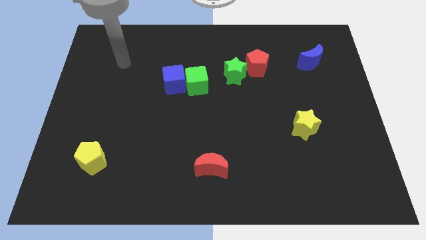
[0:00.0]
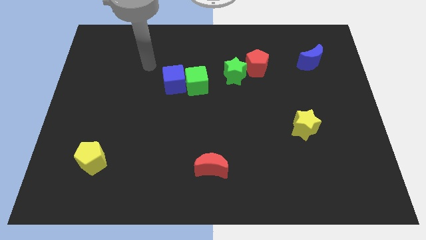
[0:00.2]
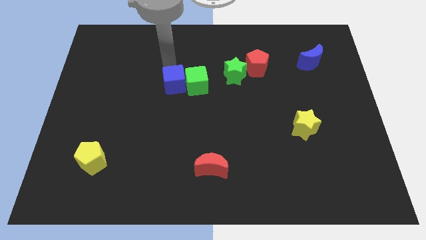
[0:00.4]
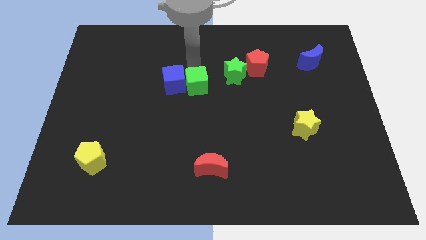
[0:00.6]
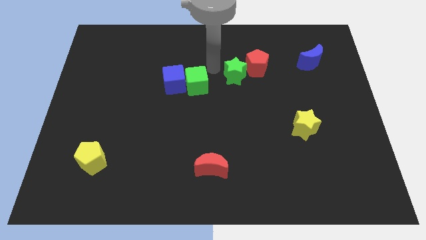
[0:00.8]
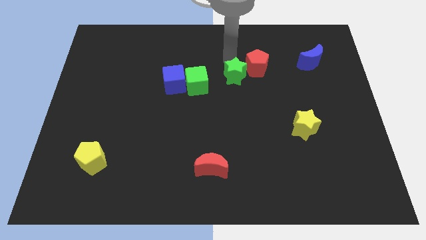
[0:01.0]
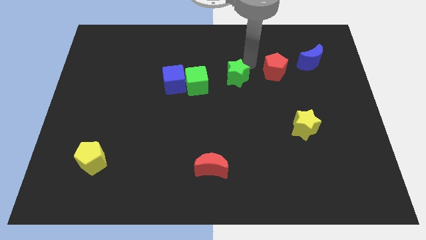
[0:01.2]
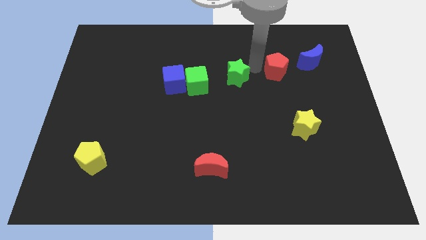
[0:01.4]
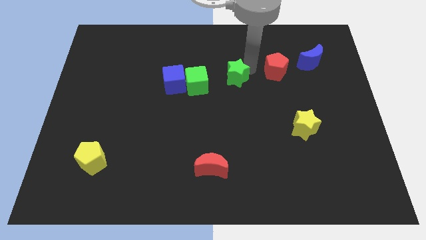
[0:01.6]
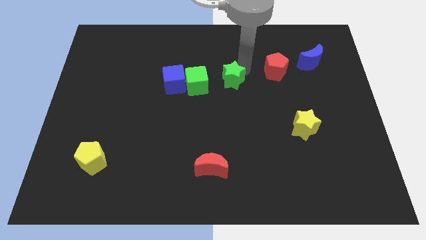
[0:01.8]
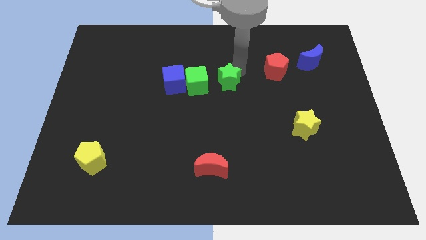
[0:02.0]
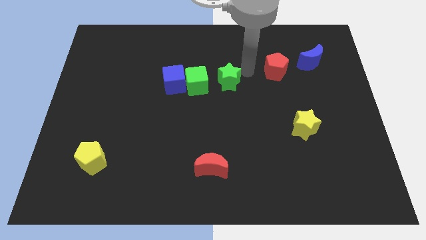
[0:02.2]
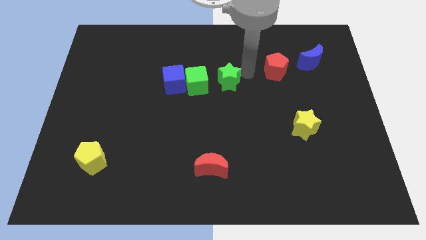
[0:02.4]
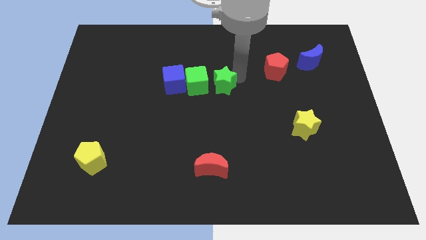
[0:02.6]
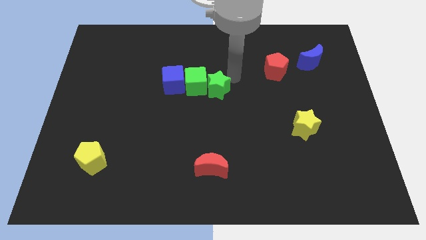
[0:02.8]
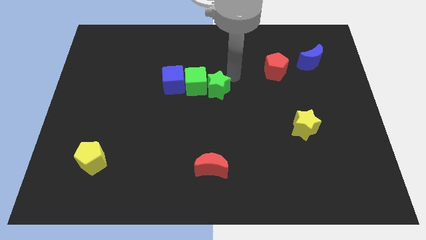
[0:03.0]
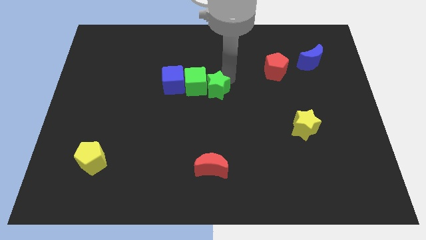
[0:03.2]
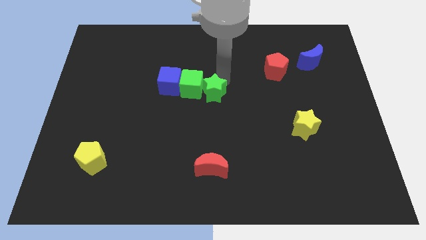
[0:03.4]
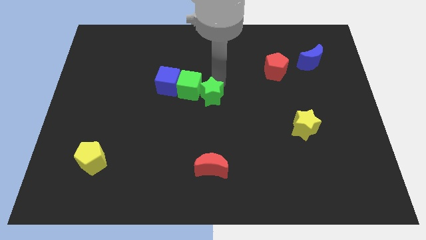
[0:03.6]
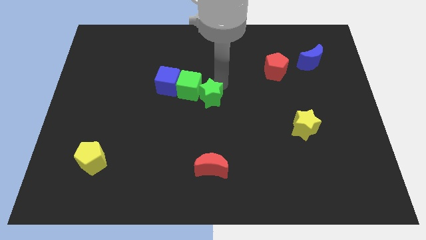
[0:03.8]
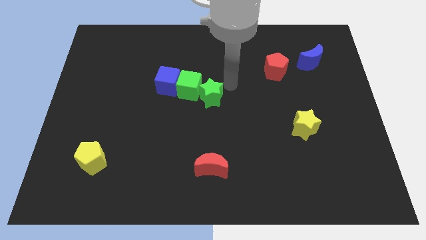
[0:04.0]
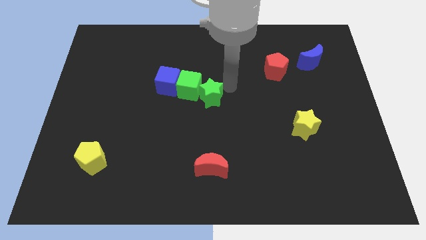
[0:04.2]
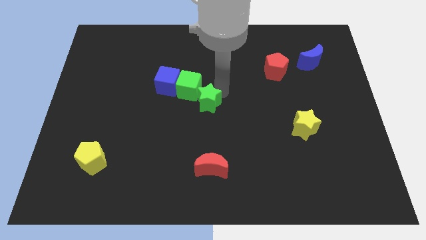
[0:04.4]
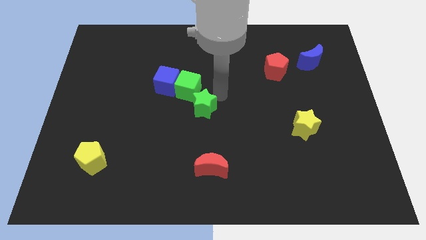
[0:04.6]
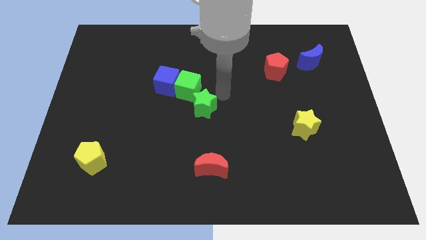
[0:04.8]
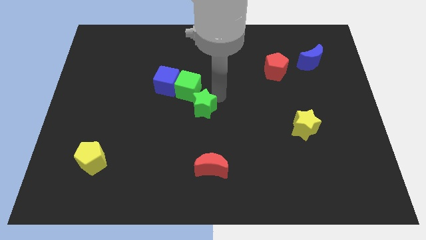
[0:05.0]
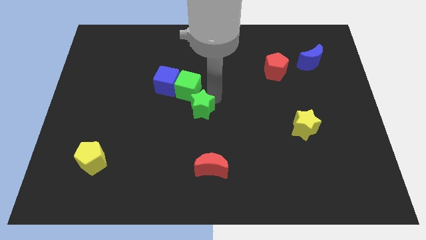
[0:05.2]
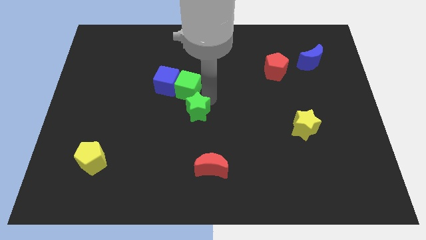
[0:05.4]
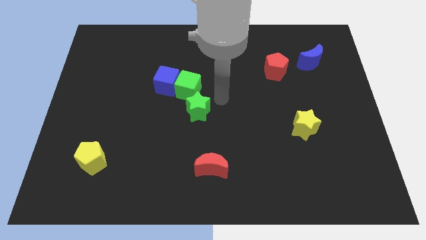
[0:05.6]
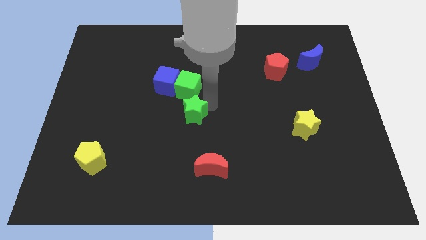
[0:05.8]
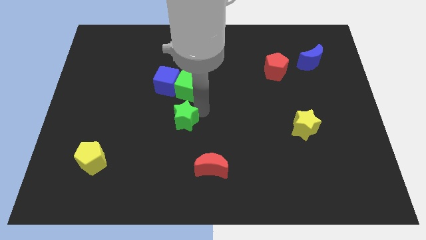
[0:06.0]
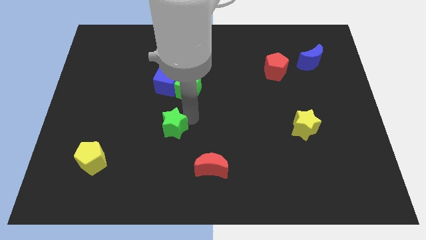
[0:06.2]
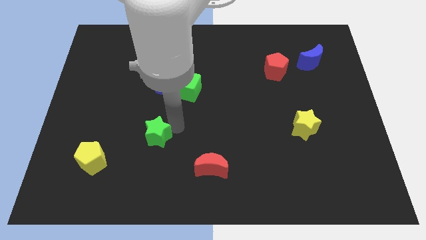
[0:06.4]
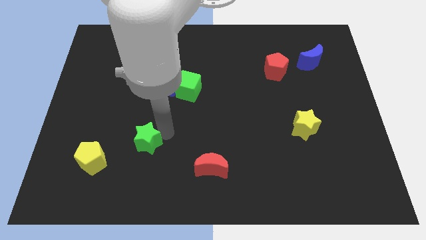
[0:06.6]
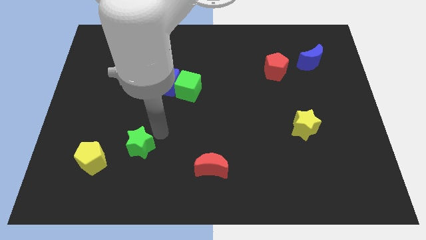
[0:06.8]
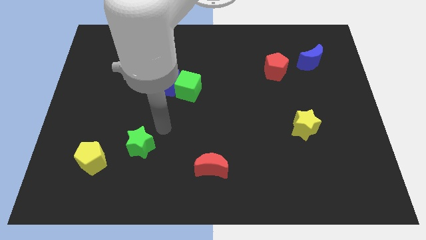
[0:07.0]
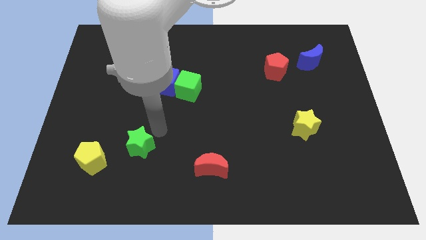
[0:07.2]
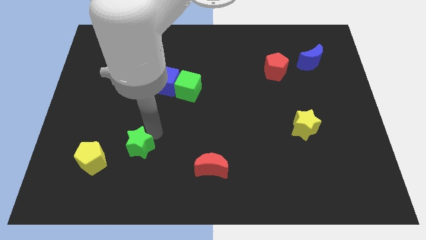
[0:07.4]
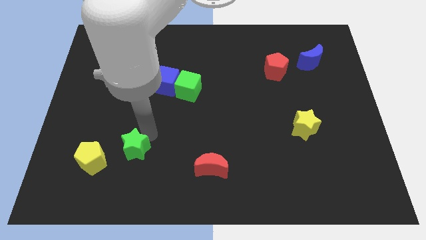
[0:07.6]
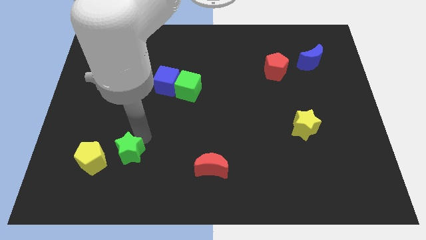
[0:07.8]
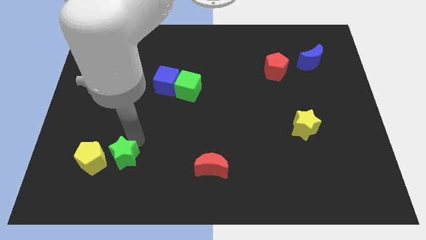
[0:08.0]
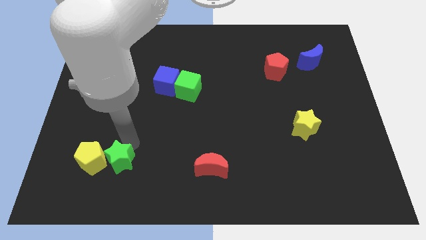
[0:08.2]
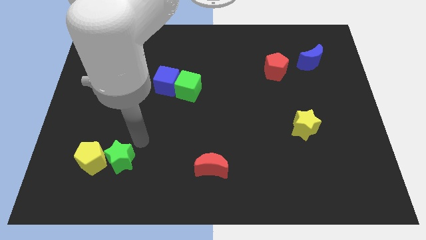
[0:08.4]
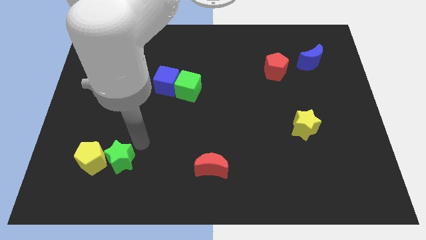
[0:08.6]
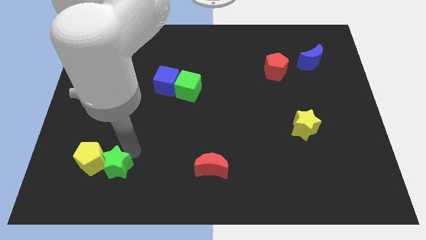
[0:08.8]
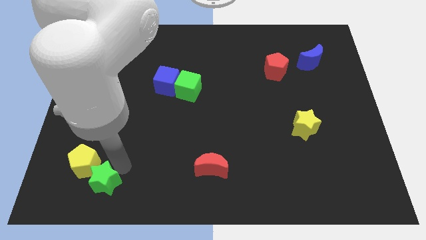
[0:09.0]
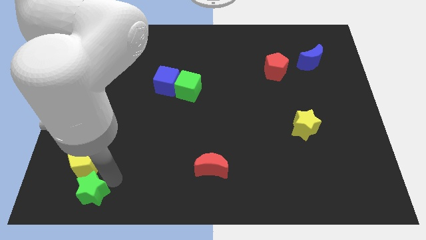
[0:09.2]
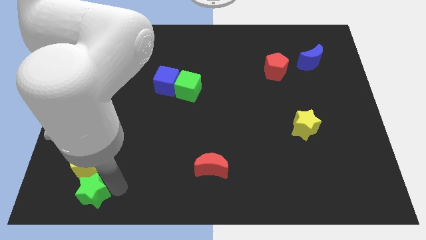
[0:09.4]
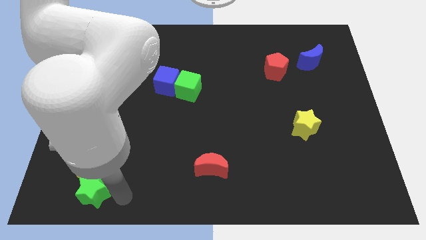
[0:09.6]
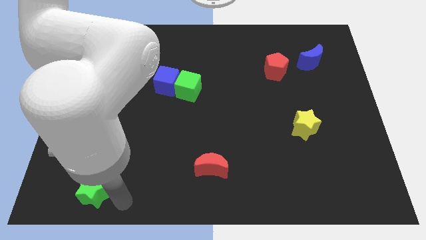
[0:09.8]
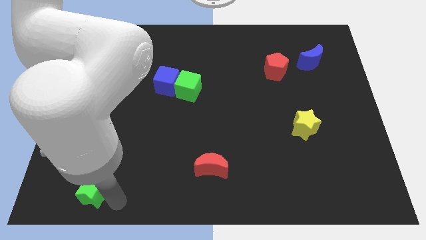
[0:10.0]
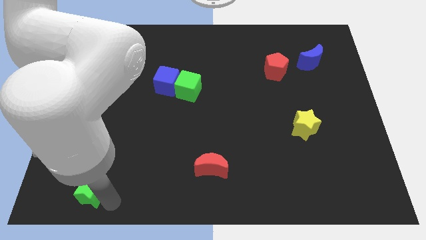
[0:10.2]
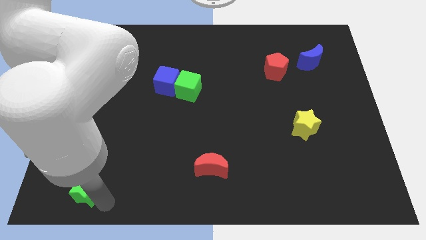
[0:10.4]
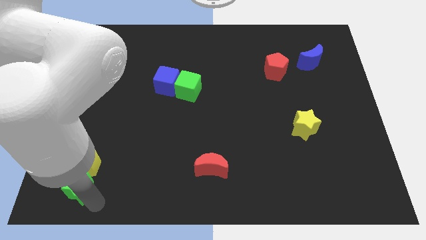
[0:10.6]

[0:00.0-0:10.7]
push the green star to the bottom left
